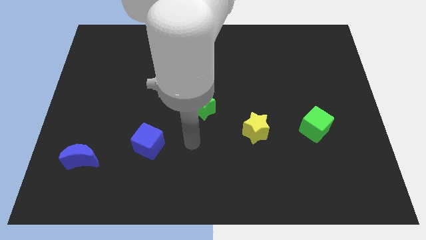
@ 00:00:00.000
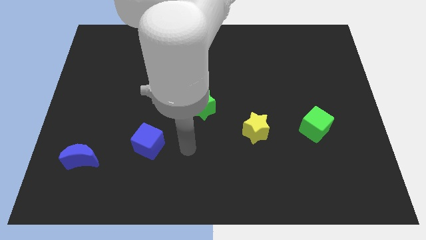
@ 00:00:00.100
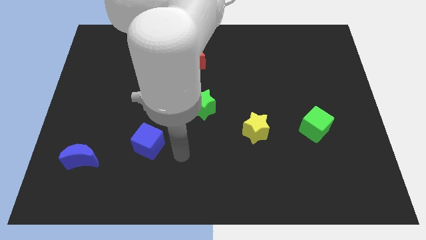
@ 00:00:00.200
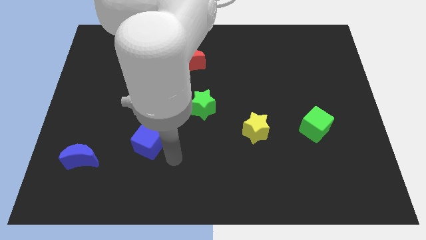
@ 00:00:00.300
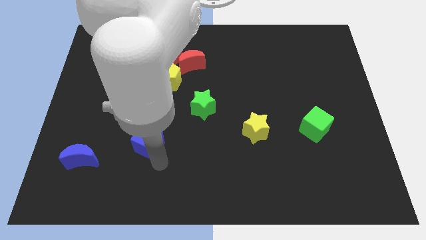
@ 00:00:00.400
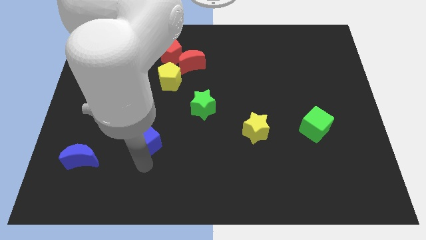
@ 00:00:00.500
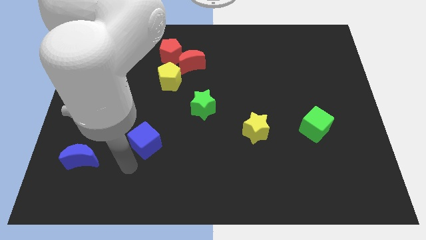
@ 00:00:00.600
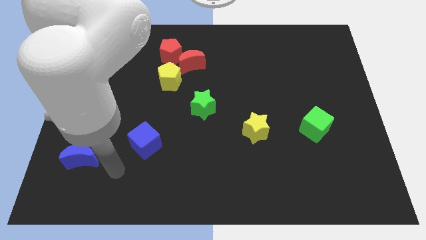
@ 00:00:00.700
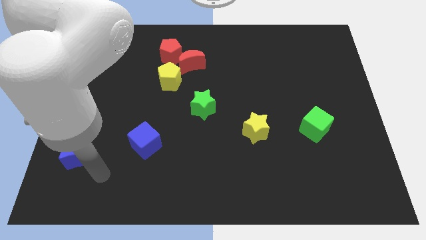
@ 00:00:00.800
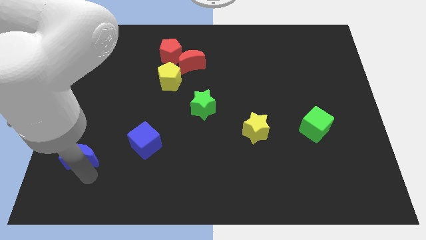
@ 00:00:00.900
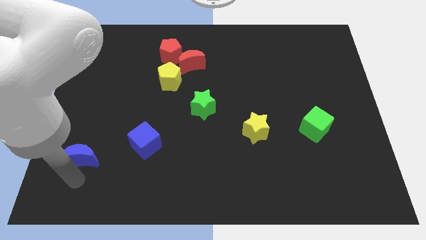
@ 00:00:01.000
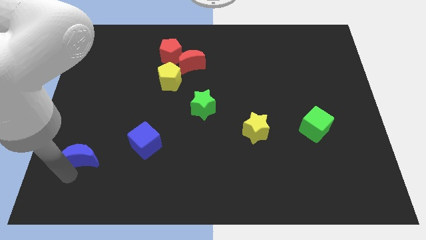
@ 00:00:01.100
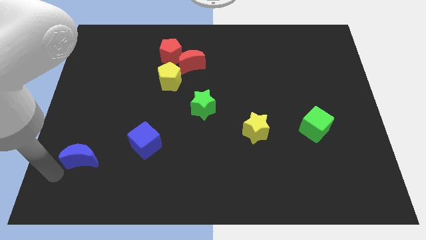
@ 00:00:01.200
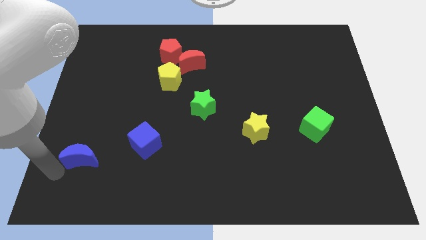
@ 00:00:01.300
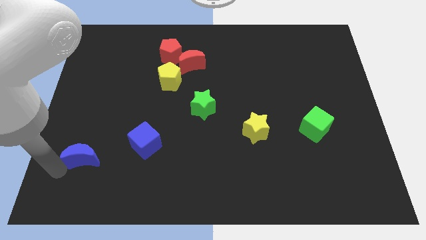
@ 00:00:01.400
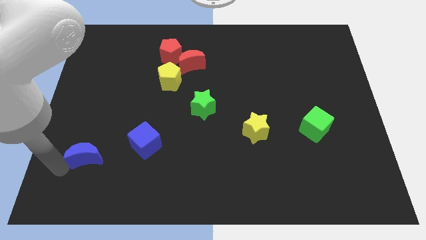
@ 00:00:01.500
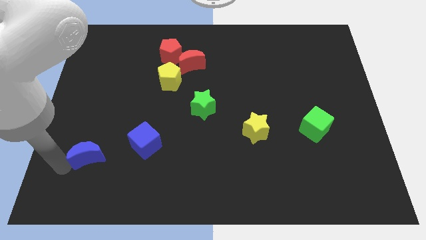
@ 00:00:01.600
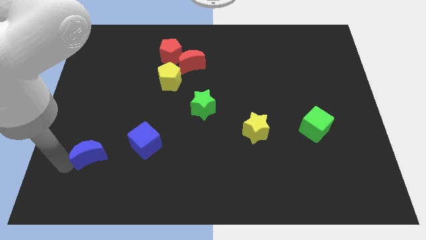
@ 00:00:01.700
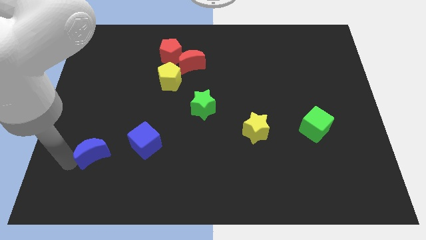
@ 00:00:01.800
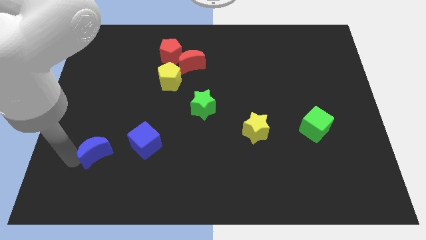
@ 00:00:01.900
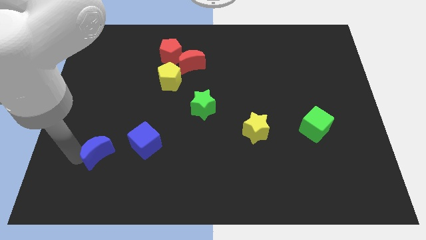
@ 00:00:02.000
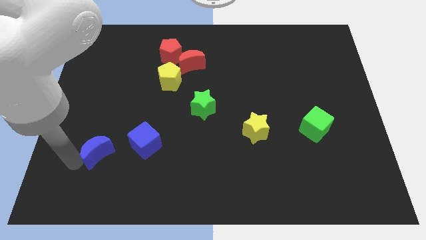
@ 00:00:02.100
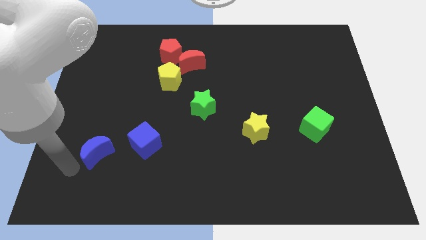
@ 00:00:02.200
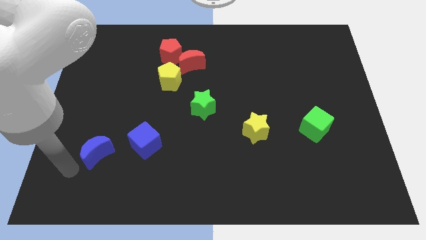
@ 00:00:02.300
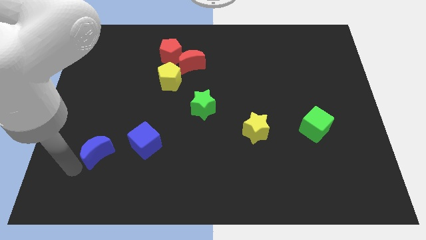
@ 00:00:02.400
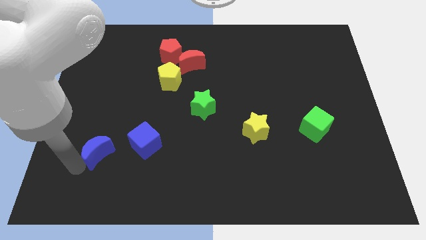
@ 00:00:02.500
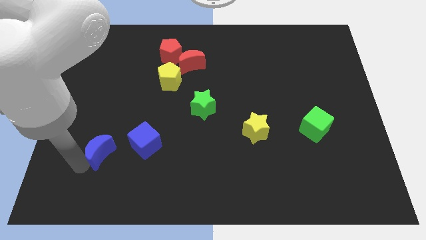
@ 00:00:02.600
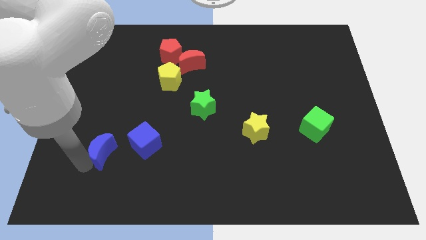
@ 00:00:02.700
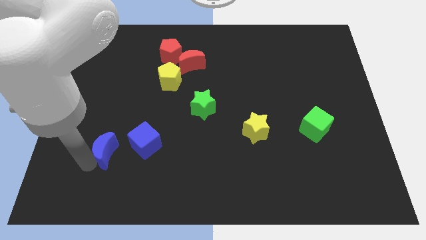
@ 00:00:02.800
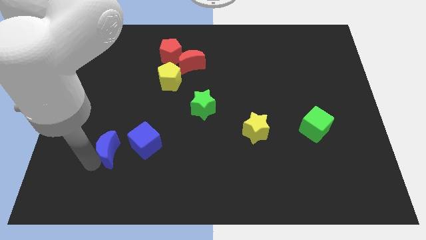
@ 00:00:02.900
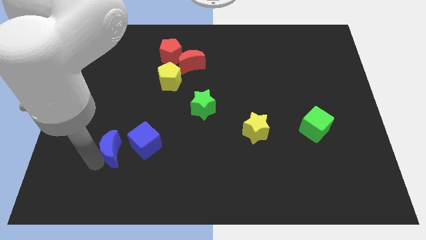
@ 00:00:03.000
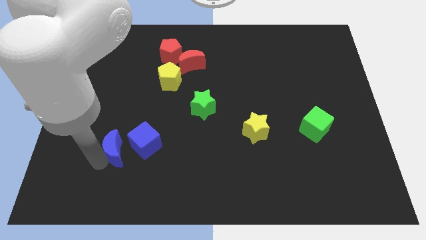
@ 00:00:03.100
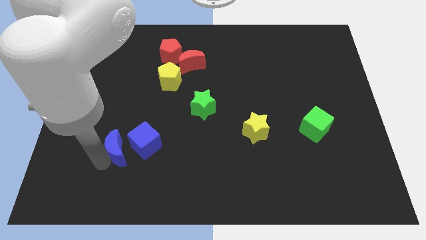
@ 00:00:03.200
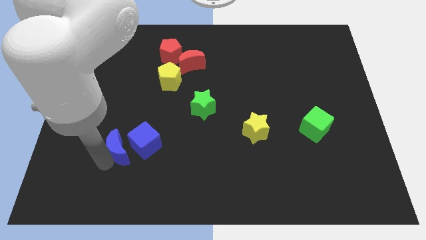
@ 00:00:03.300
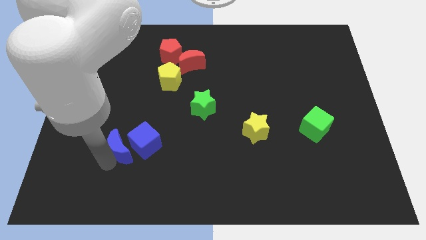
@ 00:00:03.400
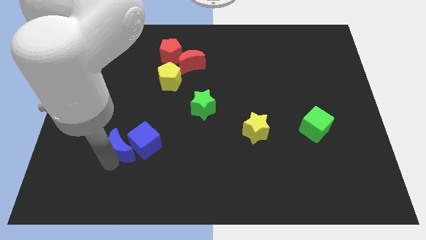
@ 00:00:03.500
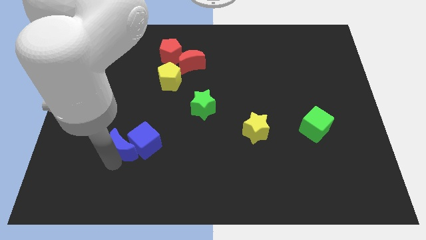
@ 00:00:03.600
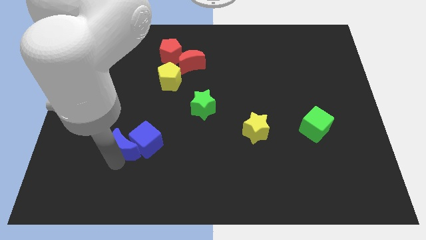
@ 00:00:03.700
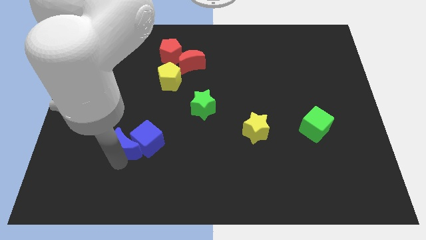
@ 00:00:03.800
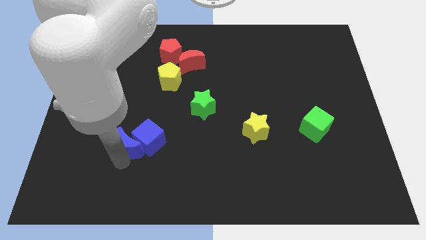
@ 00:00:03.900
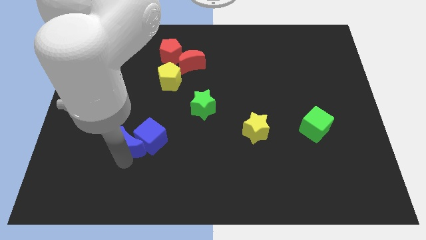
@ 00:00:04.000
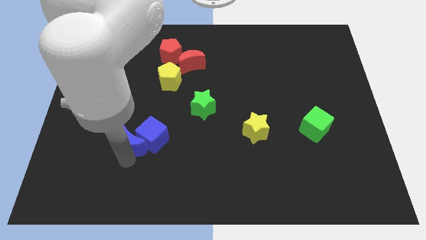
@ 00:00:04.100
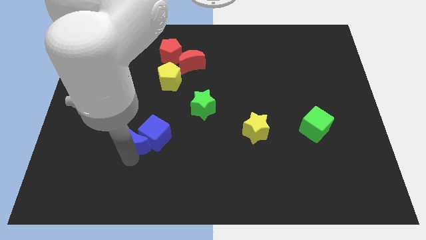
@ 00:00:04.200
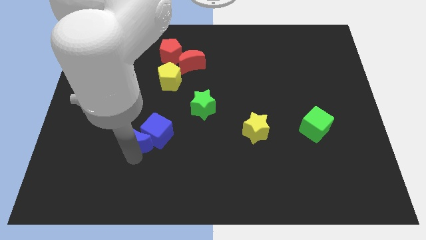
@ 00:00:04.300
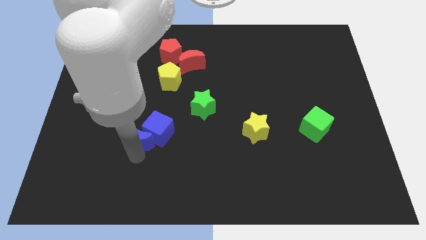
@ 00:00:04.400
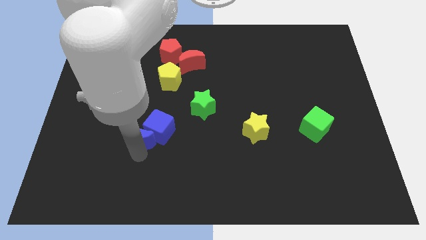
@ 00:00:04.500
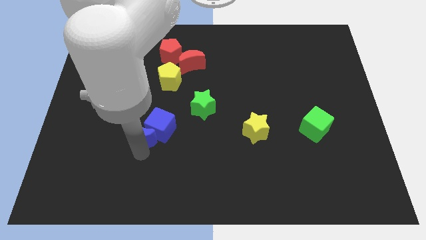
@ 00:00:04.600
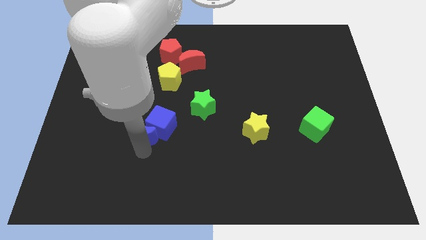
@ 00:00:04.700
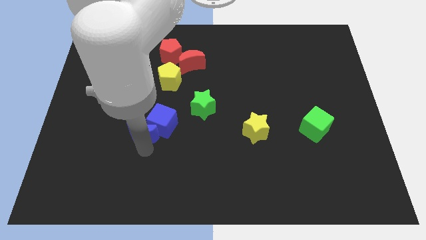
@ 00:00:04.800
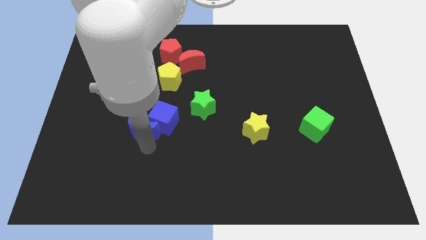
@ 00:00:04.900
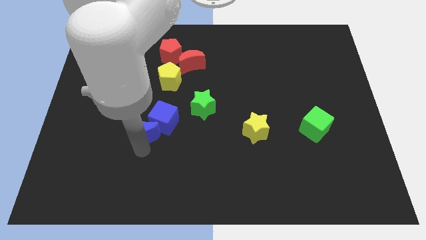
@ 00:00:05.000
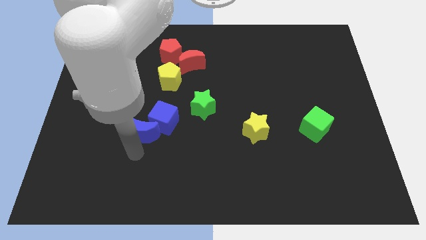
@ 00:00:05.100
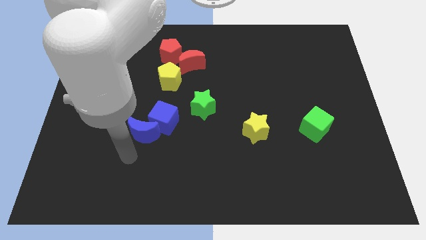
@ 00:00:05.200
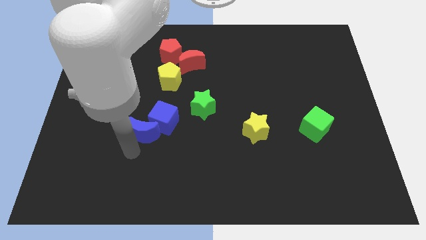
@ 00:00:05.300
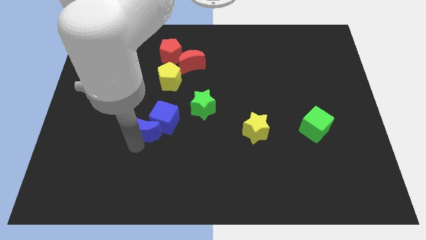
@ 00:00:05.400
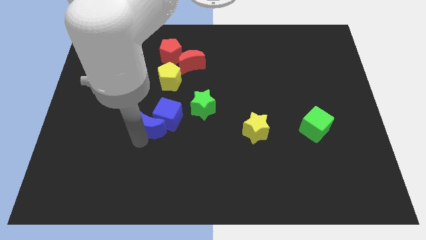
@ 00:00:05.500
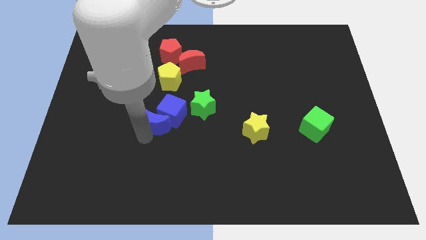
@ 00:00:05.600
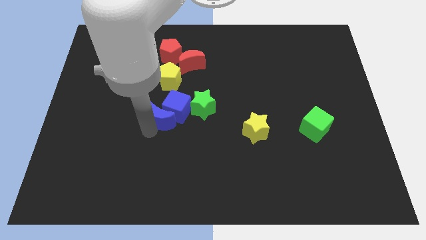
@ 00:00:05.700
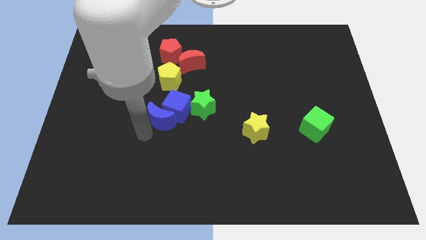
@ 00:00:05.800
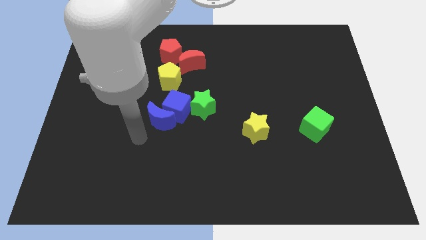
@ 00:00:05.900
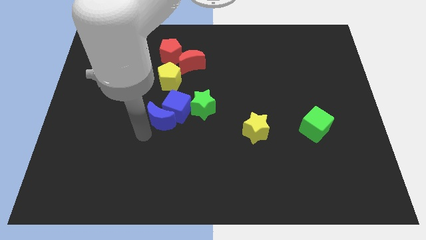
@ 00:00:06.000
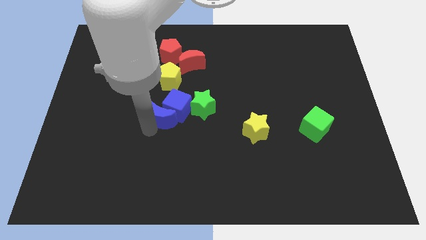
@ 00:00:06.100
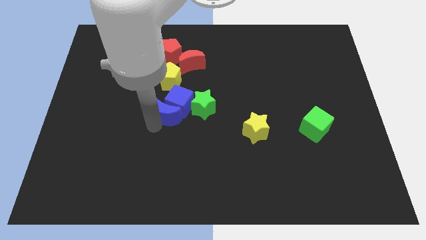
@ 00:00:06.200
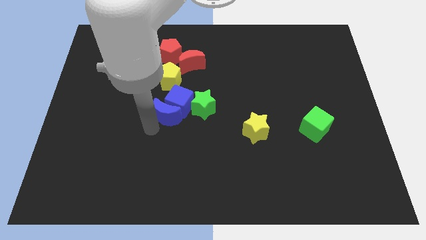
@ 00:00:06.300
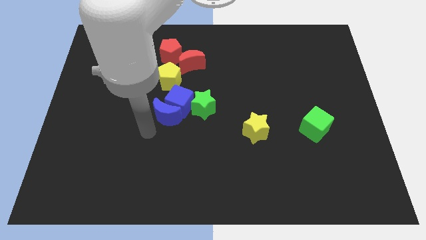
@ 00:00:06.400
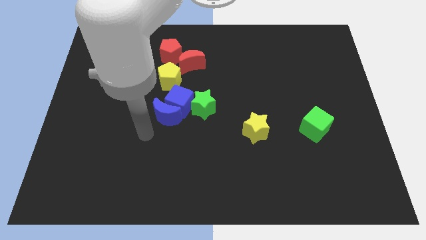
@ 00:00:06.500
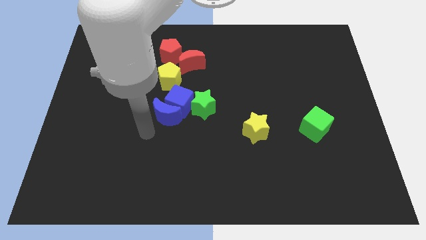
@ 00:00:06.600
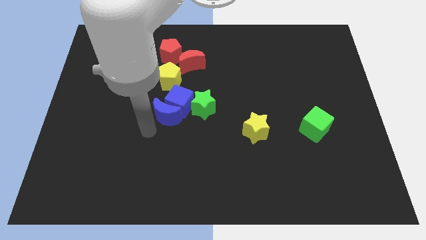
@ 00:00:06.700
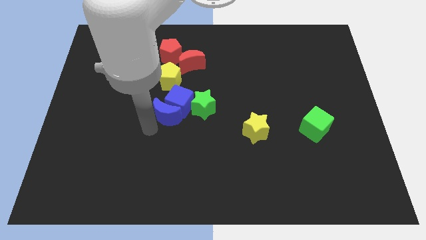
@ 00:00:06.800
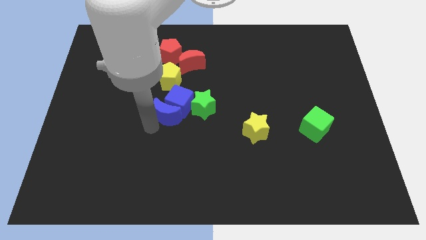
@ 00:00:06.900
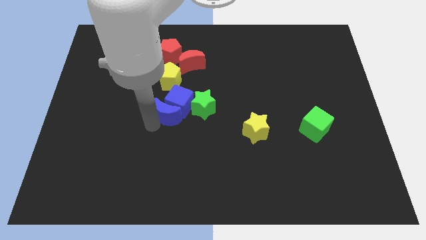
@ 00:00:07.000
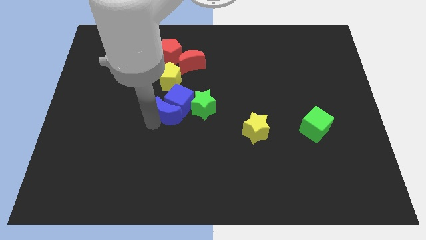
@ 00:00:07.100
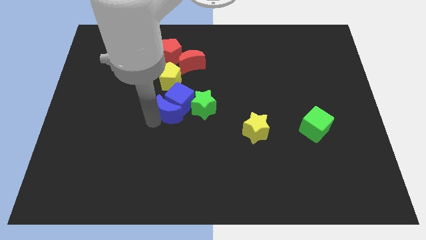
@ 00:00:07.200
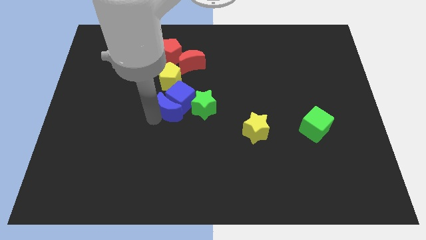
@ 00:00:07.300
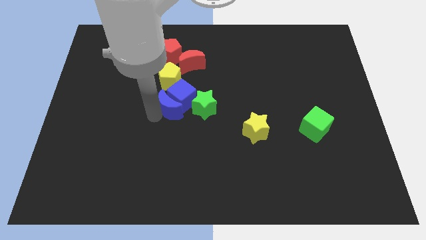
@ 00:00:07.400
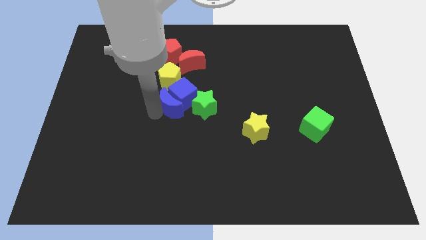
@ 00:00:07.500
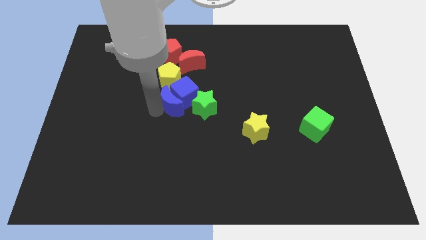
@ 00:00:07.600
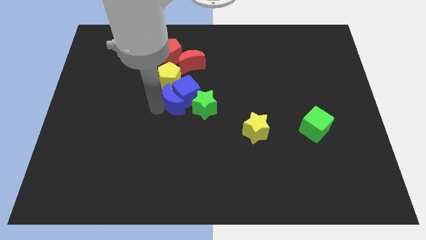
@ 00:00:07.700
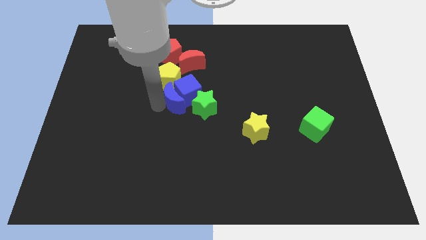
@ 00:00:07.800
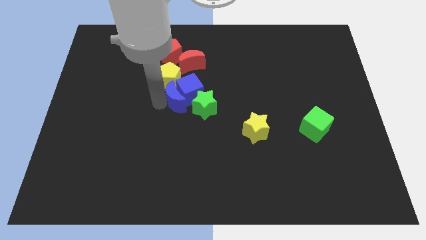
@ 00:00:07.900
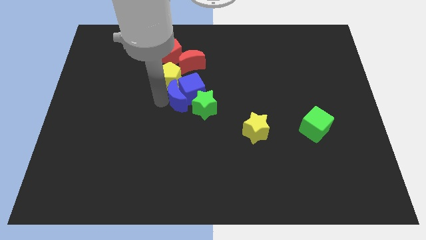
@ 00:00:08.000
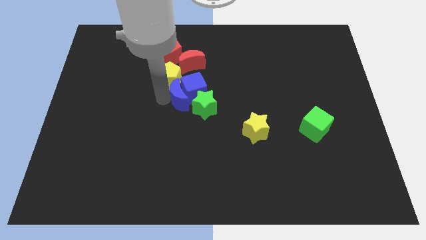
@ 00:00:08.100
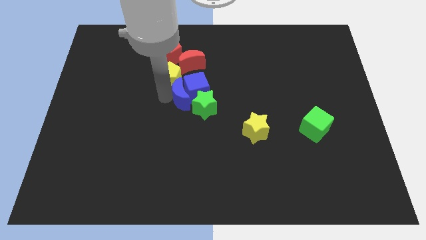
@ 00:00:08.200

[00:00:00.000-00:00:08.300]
put the blue moon close to the green star
